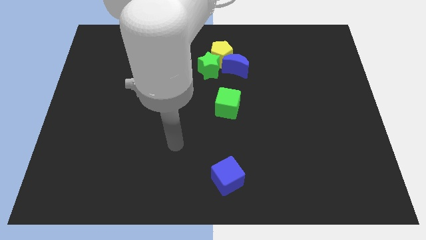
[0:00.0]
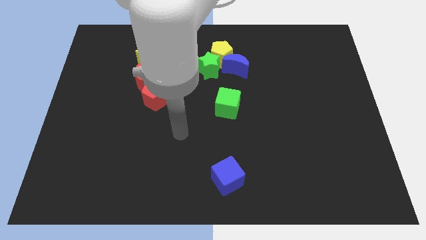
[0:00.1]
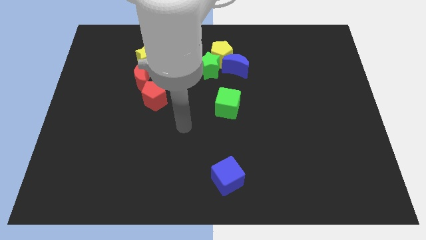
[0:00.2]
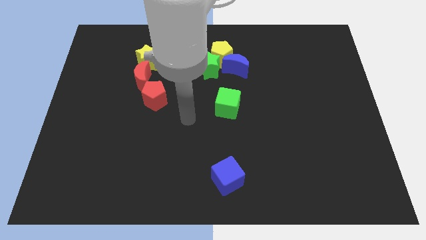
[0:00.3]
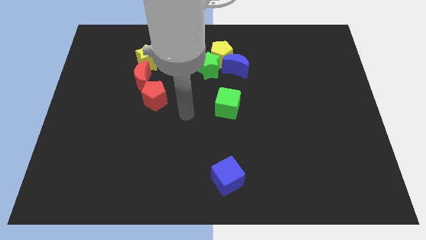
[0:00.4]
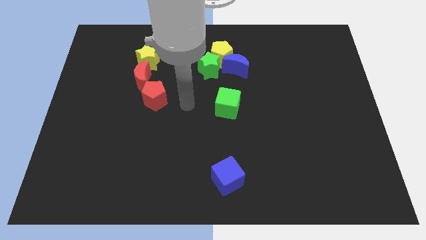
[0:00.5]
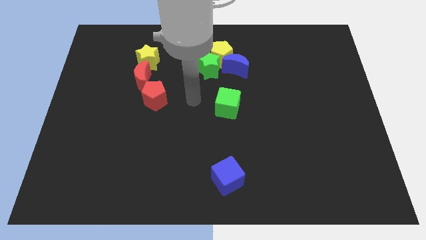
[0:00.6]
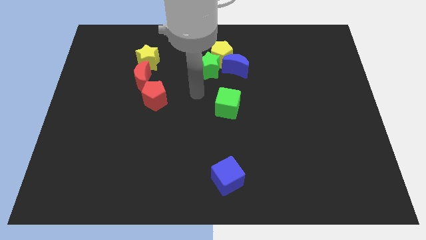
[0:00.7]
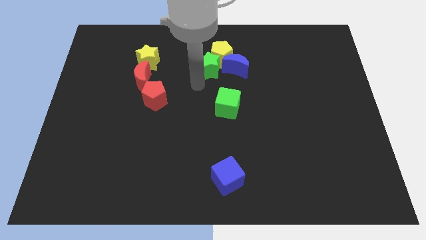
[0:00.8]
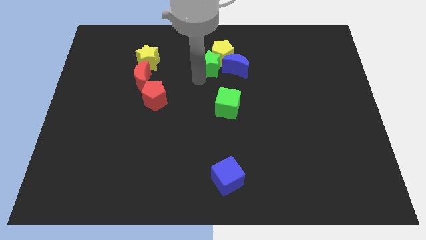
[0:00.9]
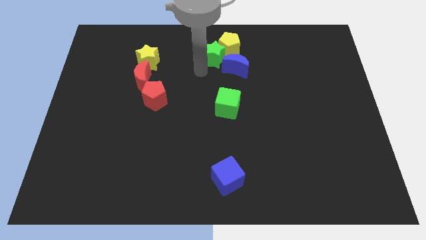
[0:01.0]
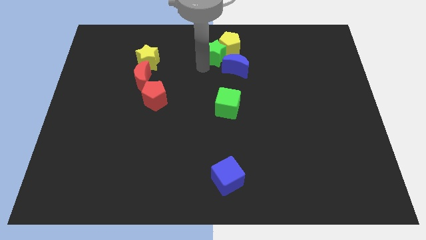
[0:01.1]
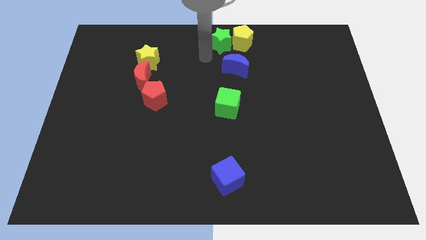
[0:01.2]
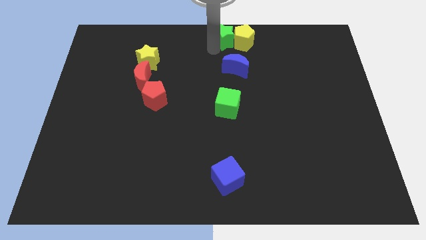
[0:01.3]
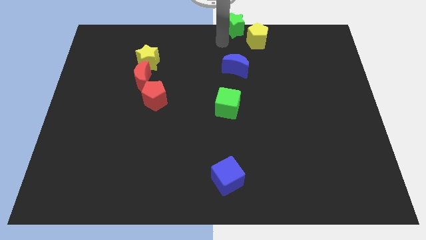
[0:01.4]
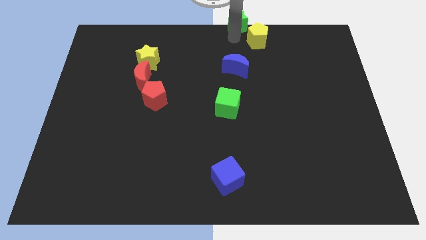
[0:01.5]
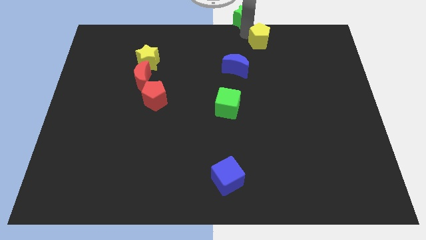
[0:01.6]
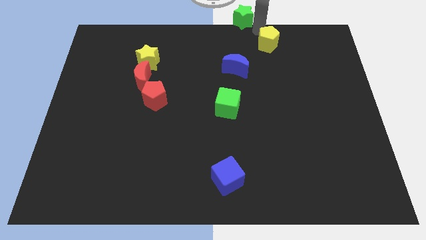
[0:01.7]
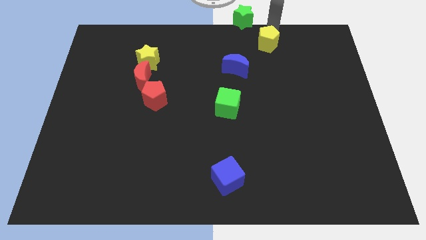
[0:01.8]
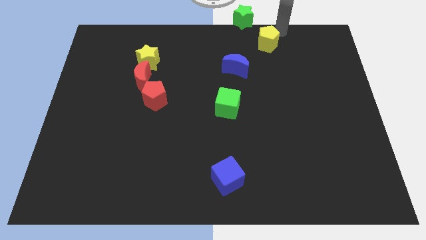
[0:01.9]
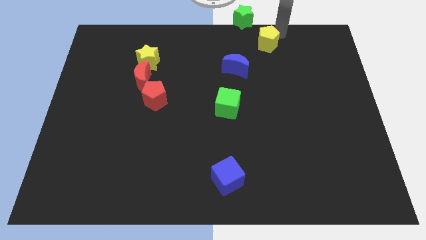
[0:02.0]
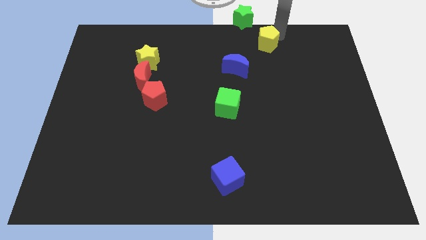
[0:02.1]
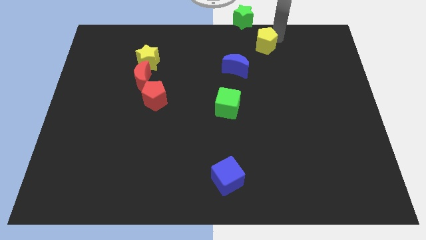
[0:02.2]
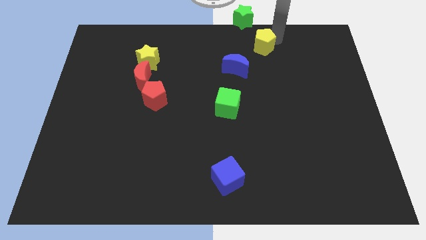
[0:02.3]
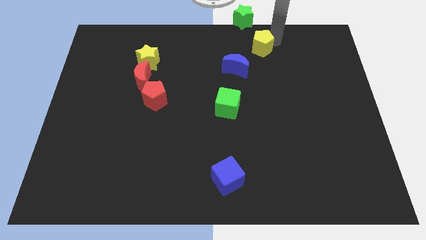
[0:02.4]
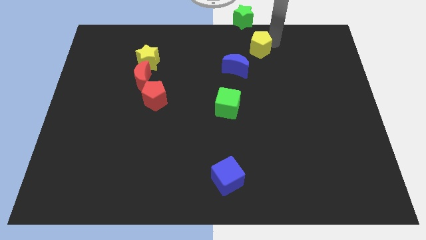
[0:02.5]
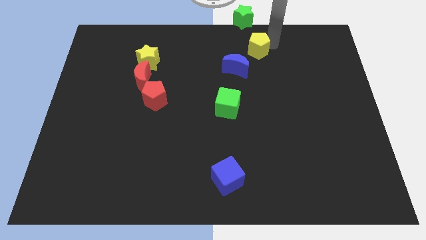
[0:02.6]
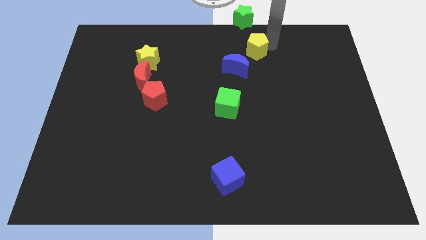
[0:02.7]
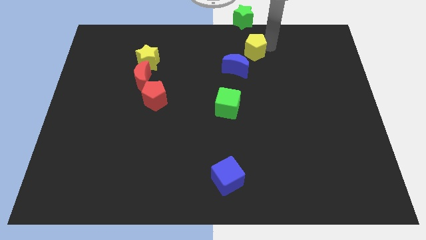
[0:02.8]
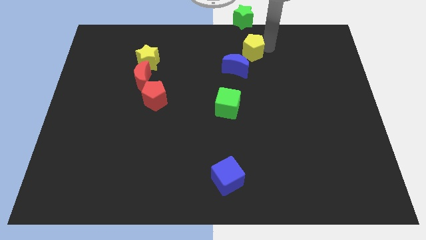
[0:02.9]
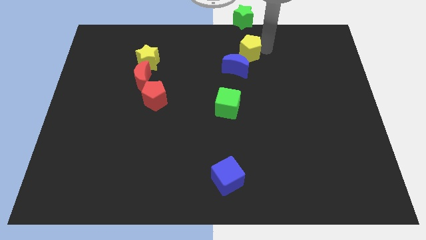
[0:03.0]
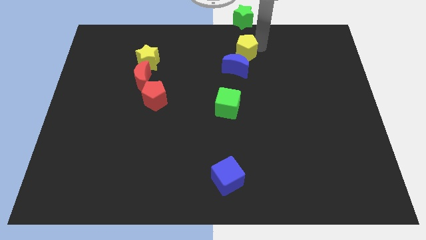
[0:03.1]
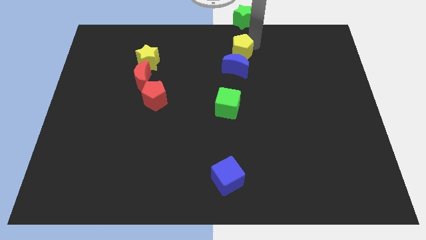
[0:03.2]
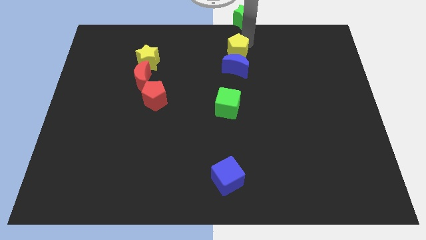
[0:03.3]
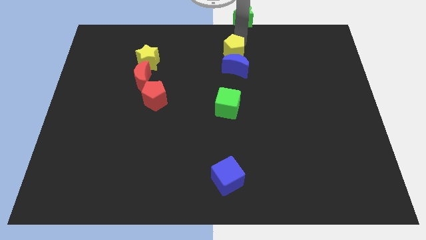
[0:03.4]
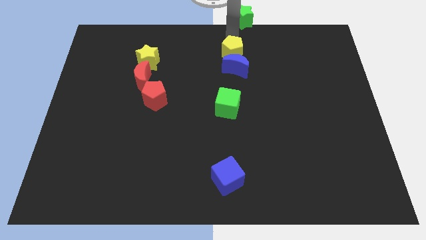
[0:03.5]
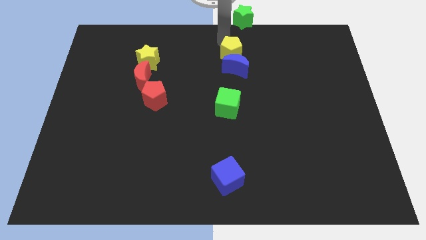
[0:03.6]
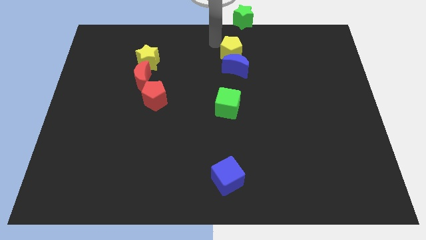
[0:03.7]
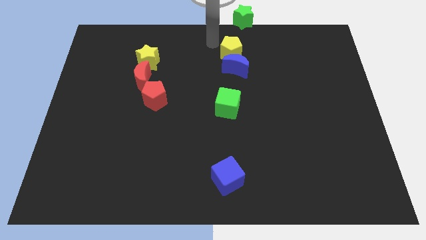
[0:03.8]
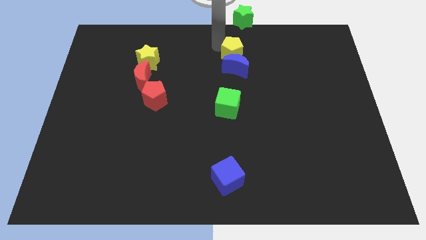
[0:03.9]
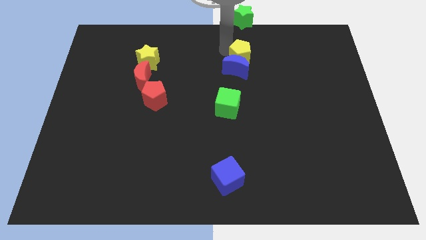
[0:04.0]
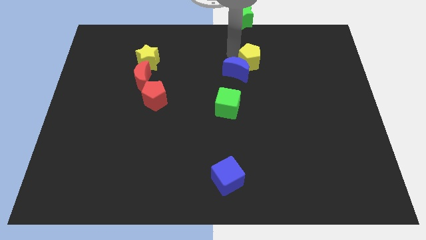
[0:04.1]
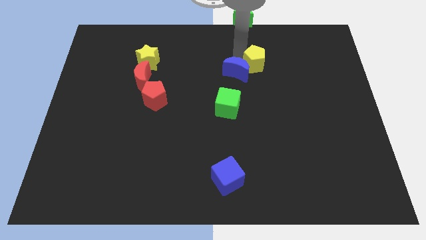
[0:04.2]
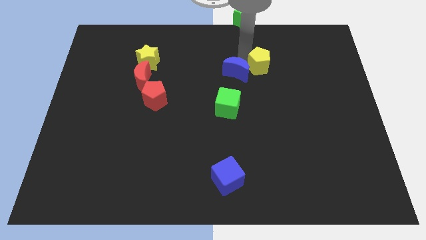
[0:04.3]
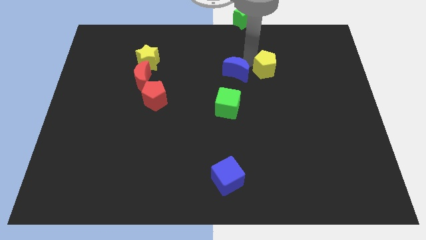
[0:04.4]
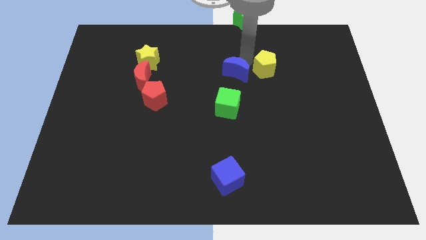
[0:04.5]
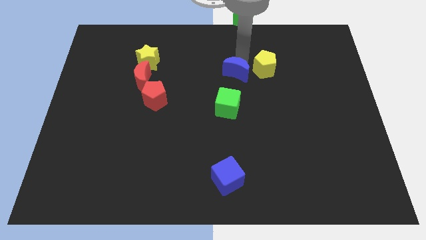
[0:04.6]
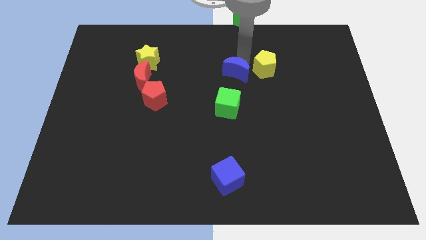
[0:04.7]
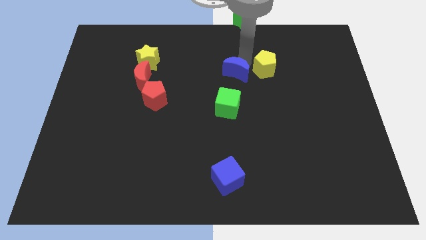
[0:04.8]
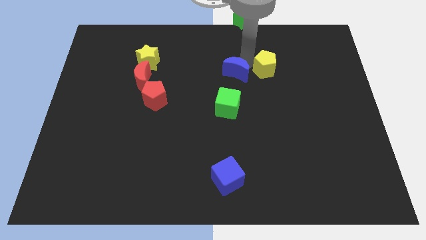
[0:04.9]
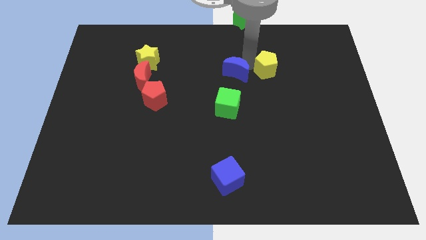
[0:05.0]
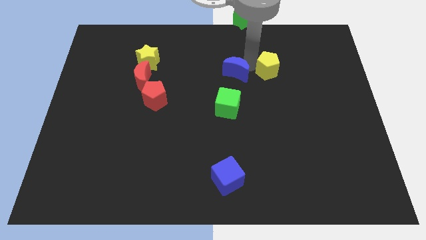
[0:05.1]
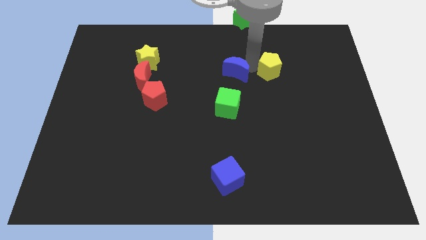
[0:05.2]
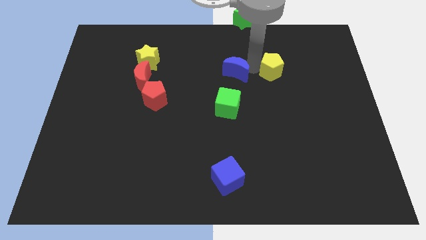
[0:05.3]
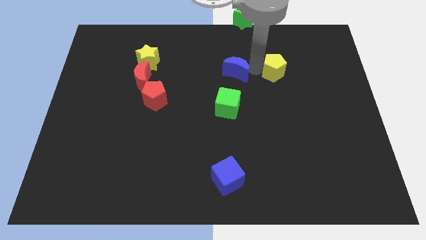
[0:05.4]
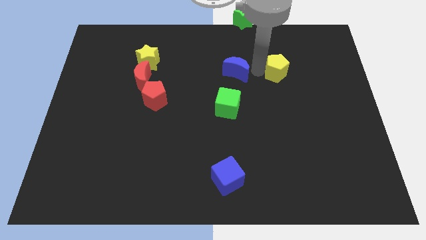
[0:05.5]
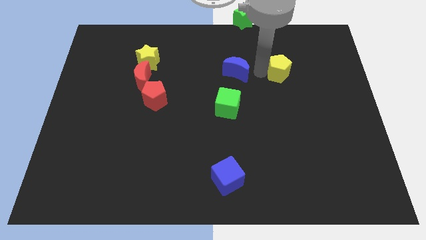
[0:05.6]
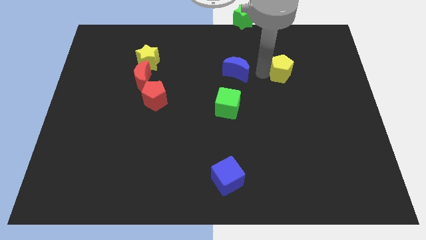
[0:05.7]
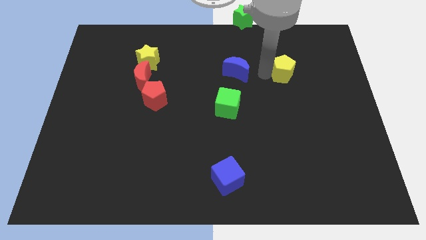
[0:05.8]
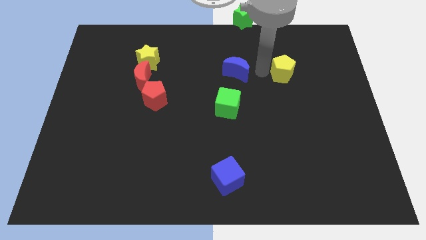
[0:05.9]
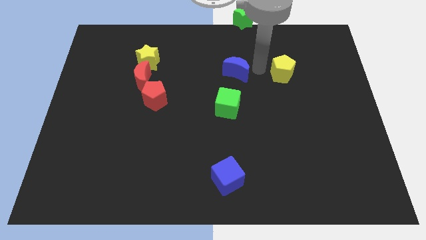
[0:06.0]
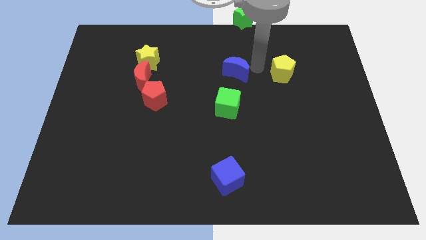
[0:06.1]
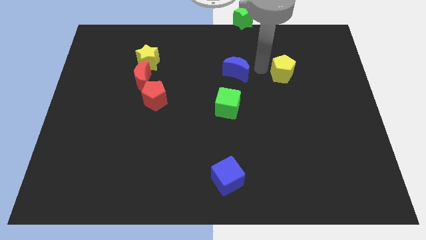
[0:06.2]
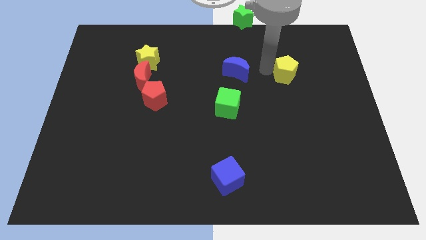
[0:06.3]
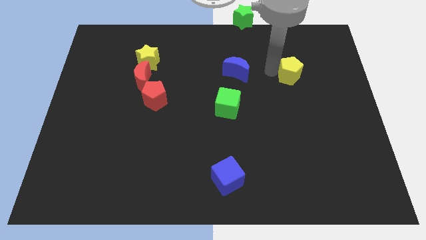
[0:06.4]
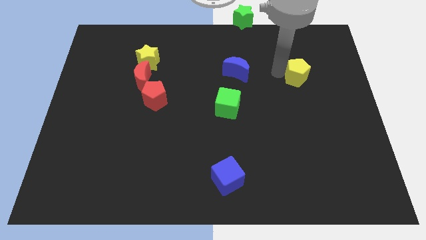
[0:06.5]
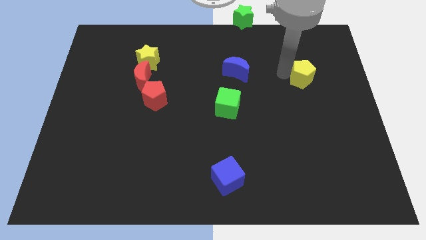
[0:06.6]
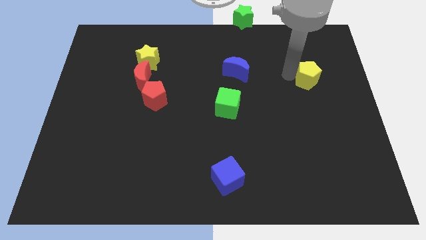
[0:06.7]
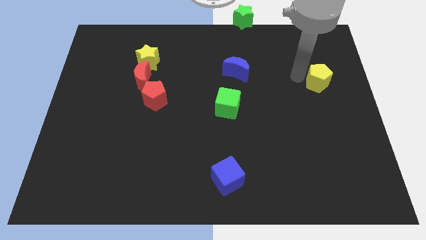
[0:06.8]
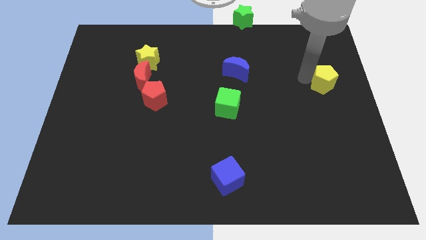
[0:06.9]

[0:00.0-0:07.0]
push the yellow pentagon to the right side
